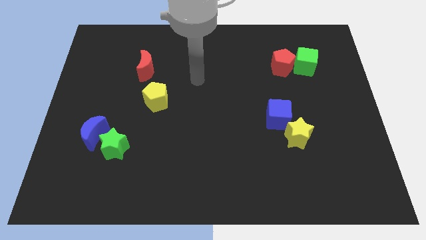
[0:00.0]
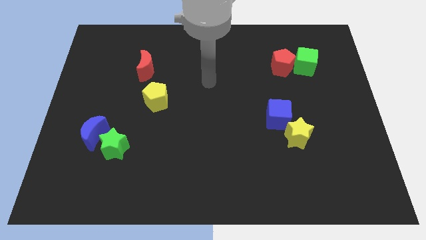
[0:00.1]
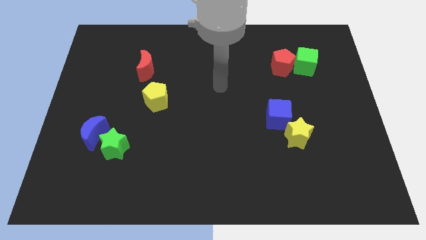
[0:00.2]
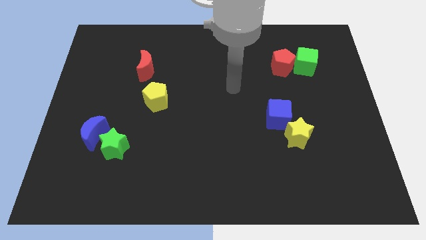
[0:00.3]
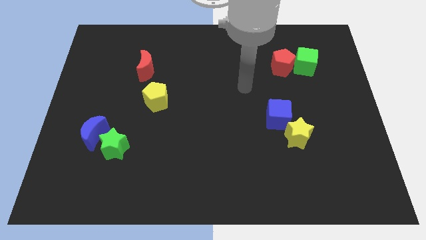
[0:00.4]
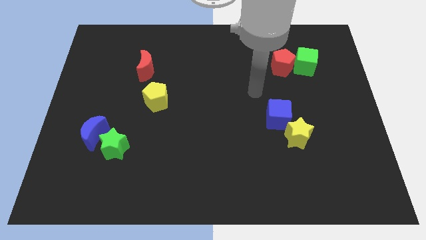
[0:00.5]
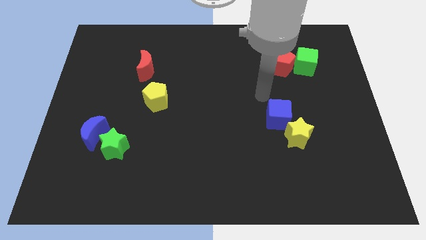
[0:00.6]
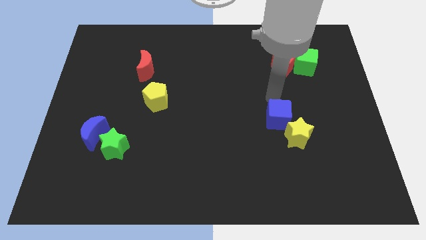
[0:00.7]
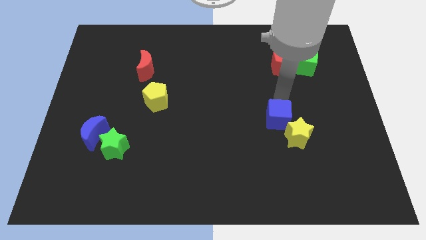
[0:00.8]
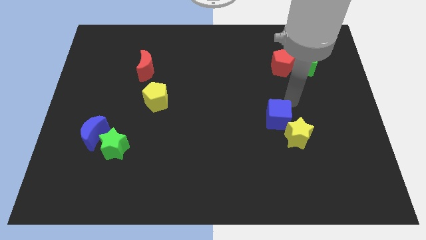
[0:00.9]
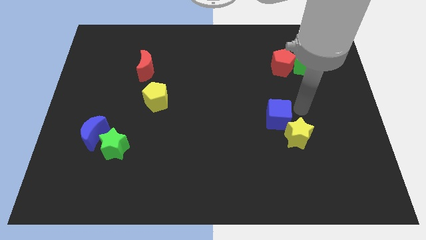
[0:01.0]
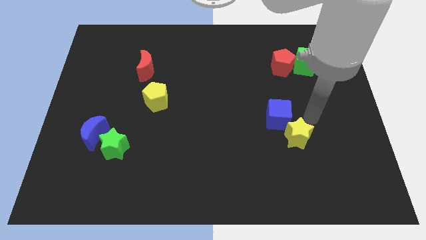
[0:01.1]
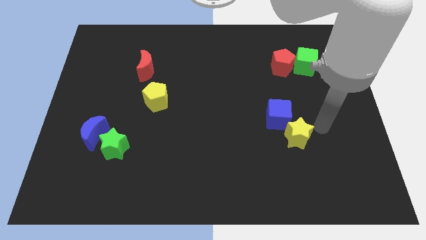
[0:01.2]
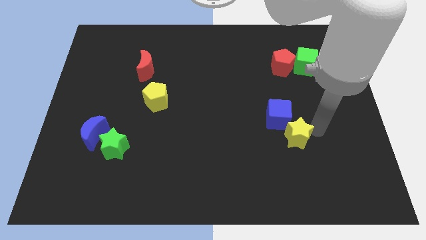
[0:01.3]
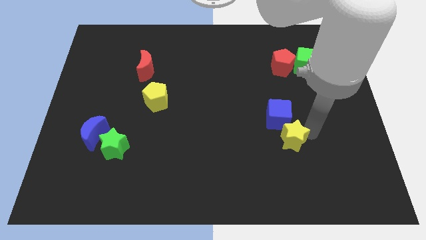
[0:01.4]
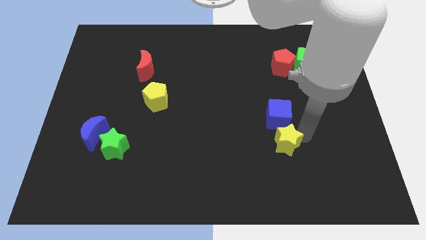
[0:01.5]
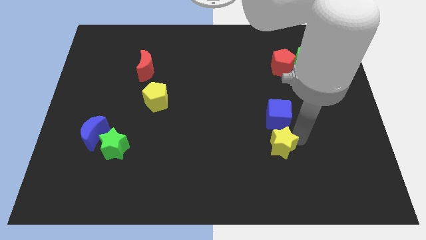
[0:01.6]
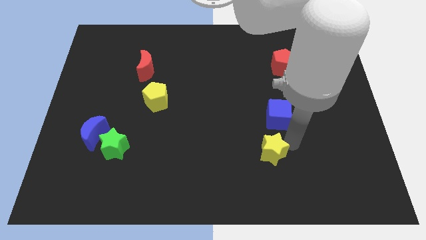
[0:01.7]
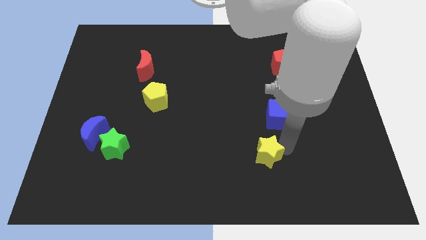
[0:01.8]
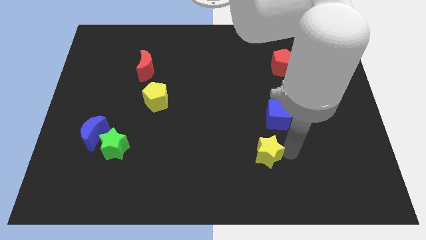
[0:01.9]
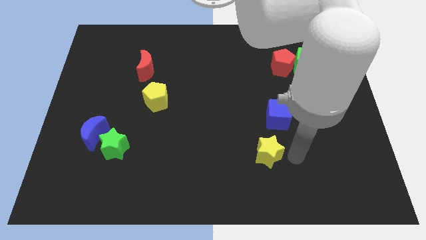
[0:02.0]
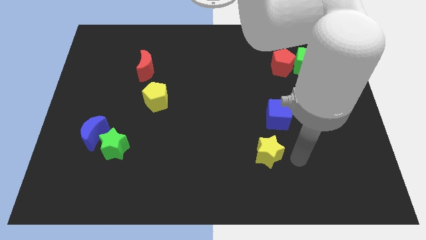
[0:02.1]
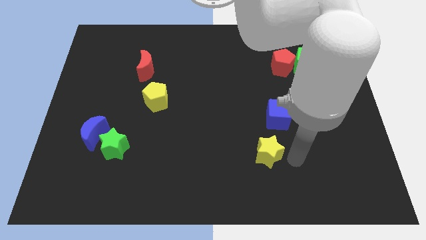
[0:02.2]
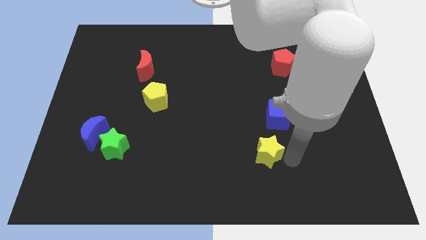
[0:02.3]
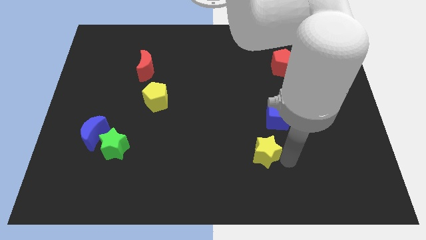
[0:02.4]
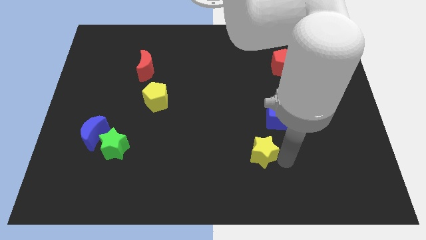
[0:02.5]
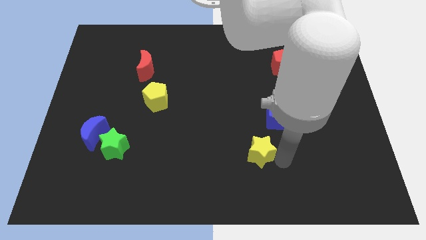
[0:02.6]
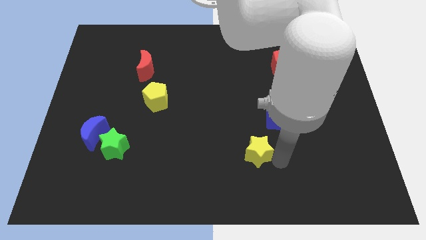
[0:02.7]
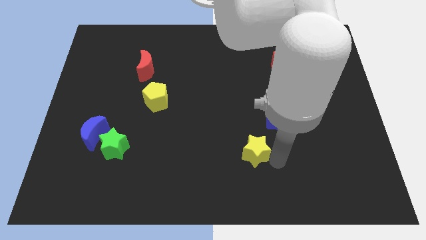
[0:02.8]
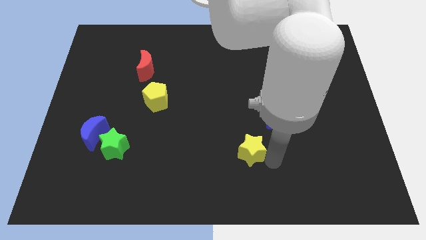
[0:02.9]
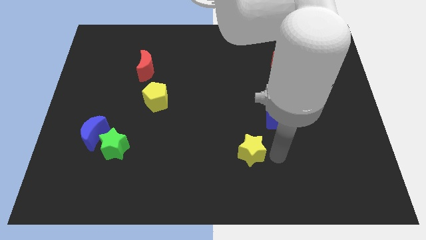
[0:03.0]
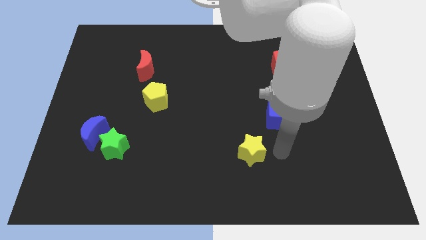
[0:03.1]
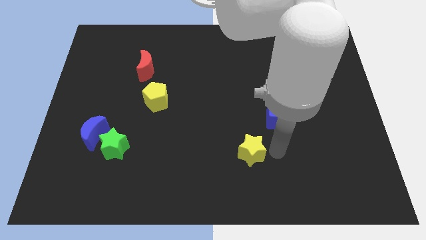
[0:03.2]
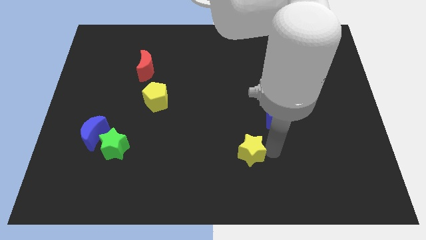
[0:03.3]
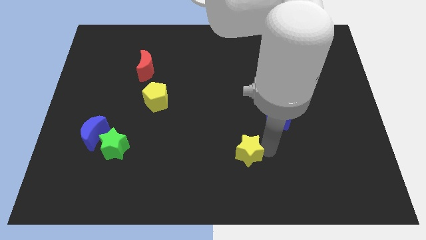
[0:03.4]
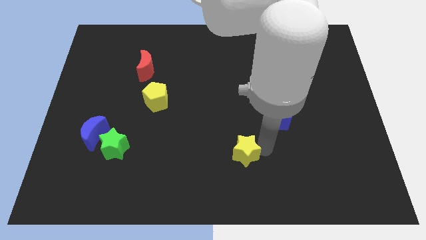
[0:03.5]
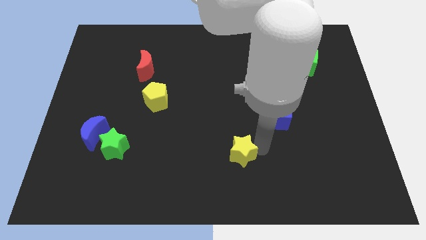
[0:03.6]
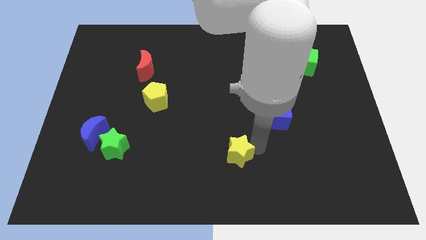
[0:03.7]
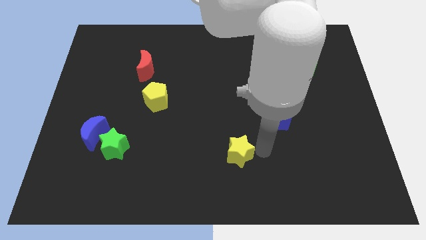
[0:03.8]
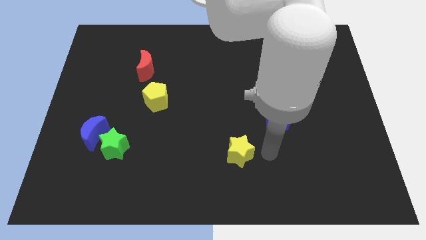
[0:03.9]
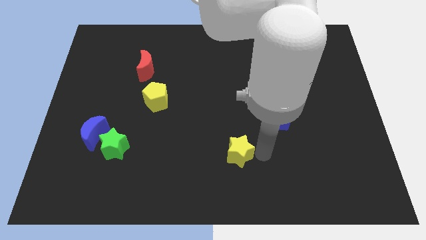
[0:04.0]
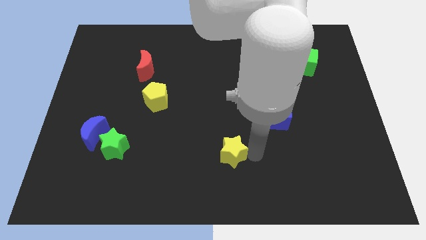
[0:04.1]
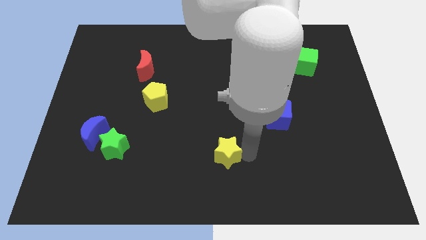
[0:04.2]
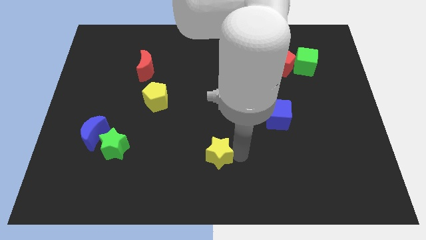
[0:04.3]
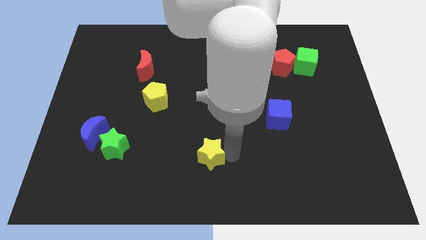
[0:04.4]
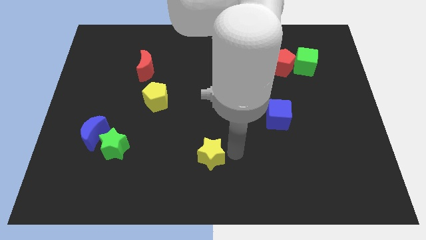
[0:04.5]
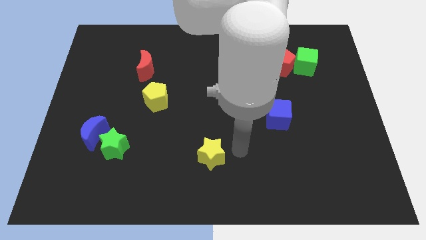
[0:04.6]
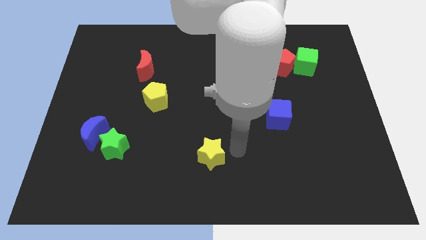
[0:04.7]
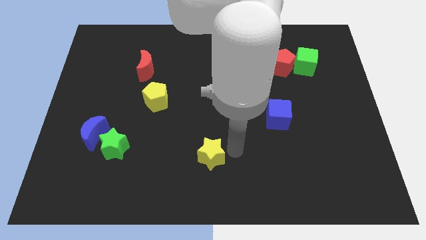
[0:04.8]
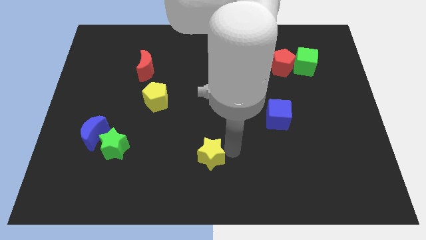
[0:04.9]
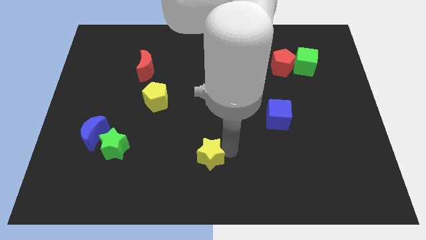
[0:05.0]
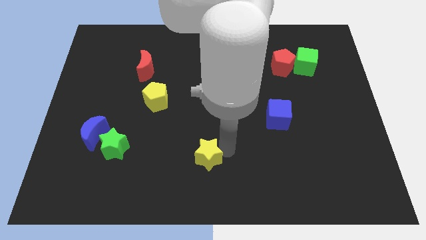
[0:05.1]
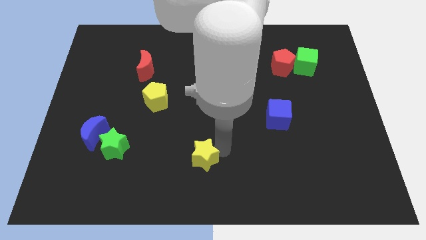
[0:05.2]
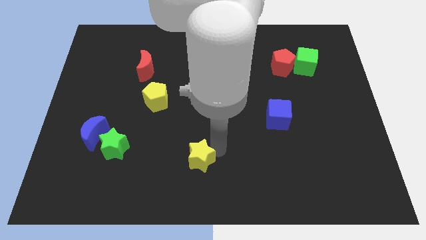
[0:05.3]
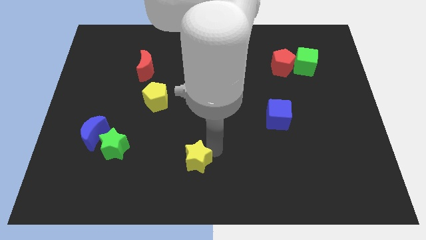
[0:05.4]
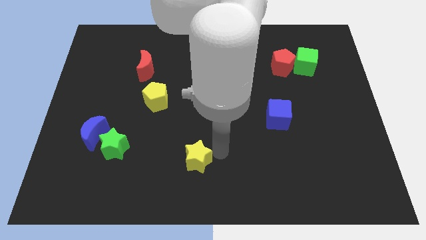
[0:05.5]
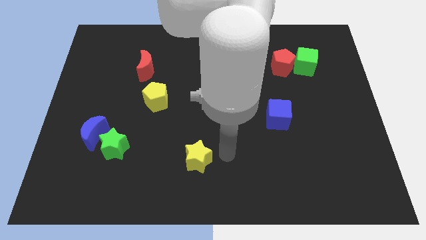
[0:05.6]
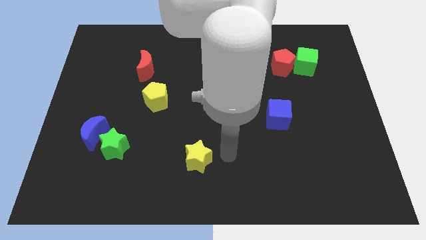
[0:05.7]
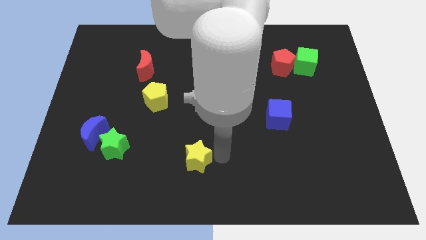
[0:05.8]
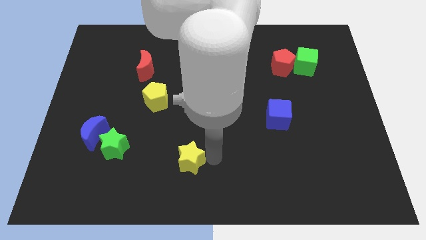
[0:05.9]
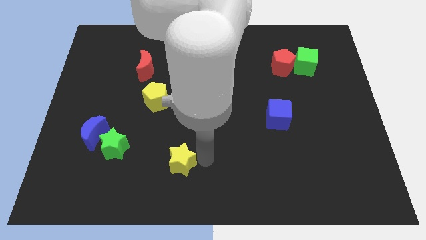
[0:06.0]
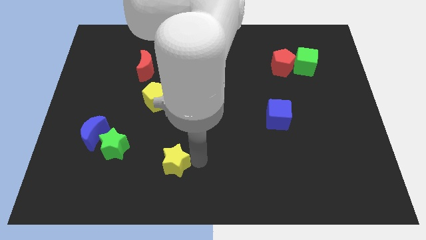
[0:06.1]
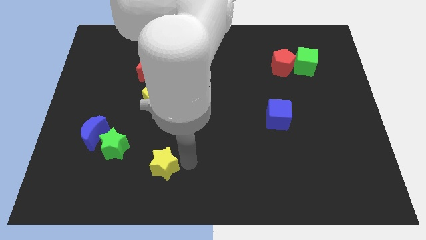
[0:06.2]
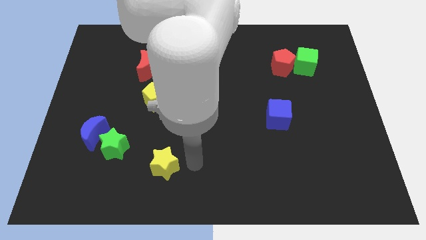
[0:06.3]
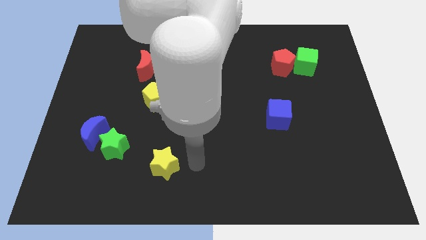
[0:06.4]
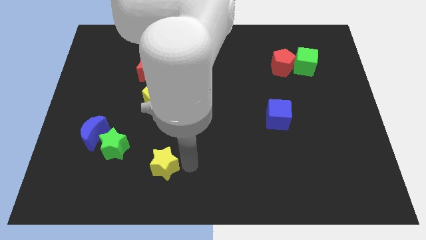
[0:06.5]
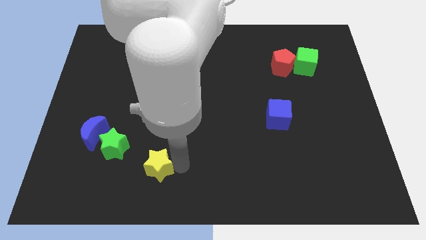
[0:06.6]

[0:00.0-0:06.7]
push the yellow star to the bottom right of the green star
